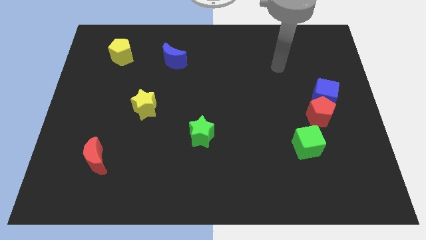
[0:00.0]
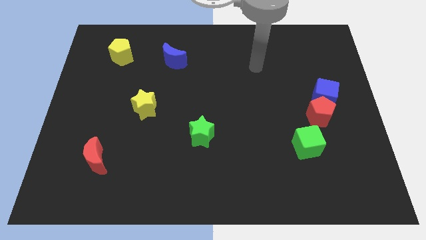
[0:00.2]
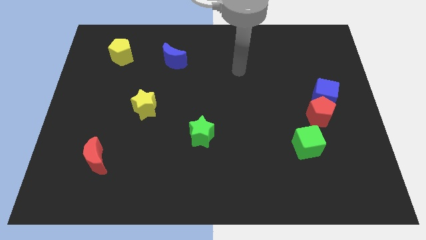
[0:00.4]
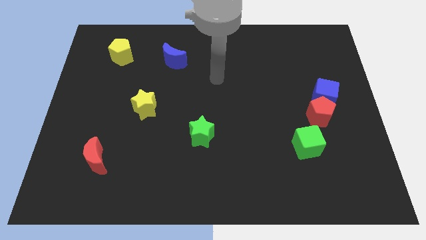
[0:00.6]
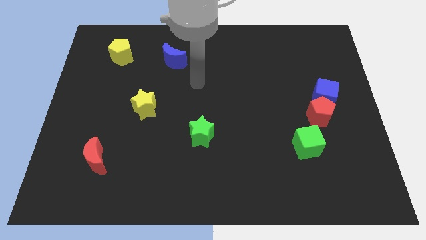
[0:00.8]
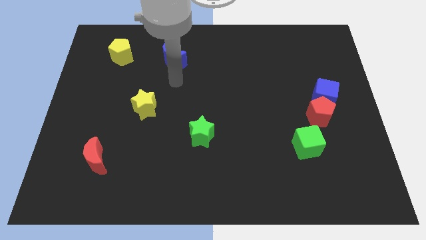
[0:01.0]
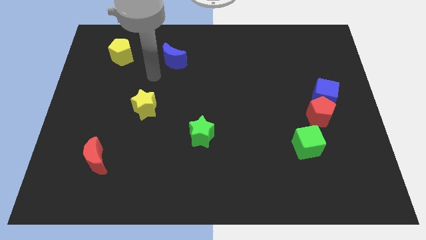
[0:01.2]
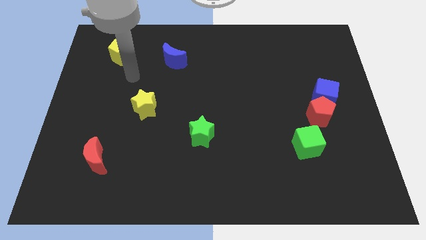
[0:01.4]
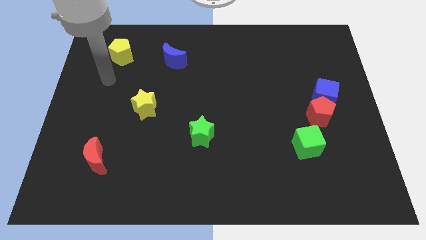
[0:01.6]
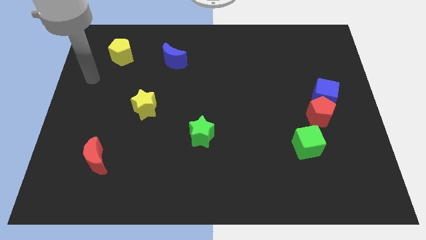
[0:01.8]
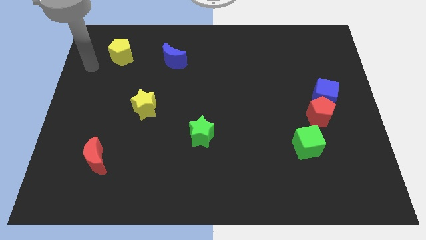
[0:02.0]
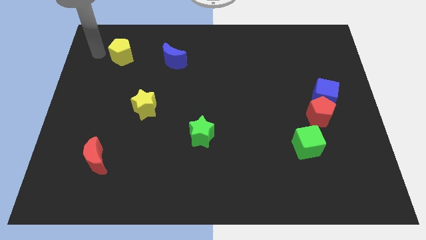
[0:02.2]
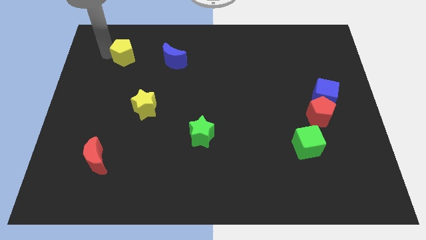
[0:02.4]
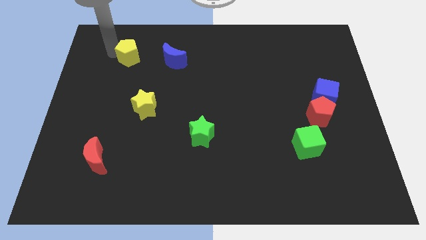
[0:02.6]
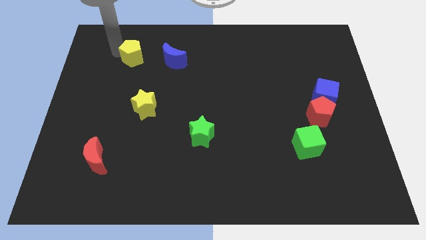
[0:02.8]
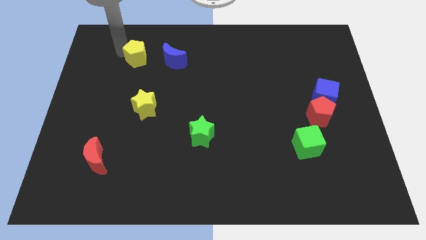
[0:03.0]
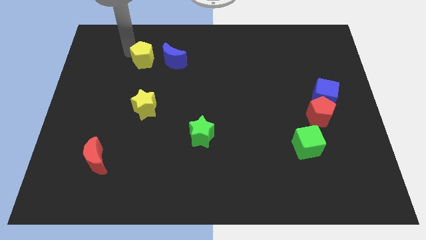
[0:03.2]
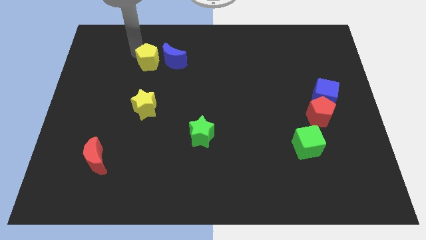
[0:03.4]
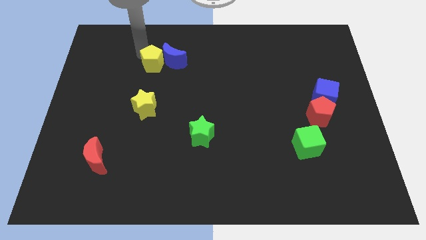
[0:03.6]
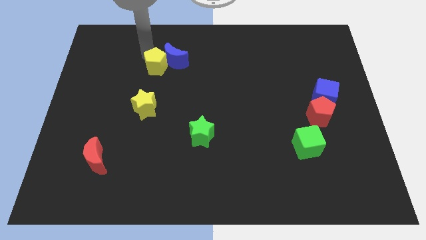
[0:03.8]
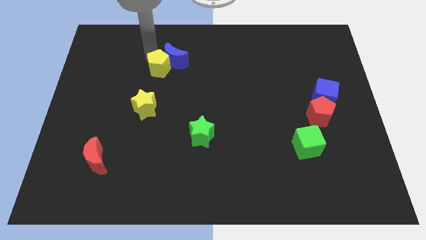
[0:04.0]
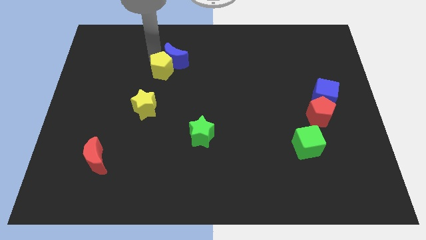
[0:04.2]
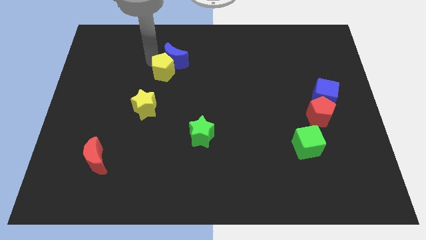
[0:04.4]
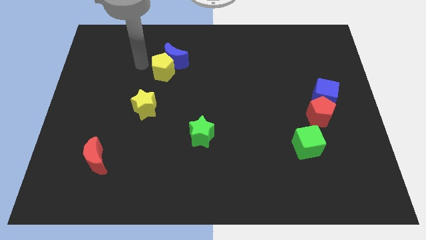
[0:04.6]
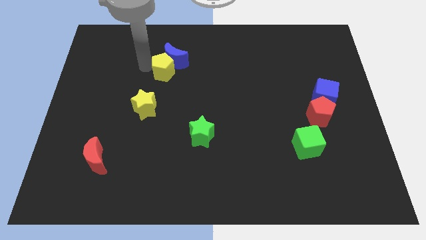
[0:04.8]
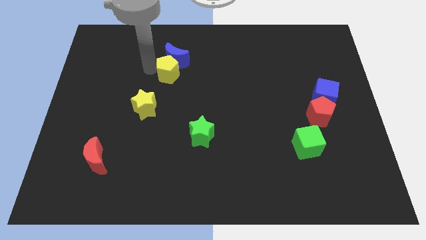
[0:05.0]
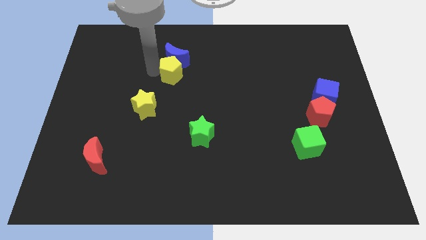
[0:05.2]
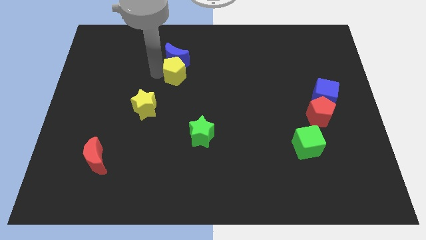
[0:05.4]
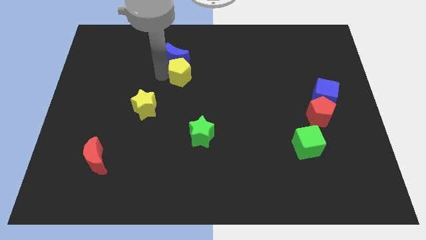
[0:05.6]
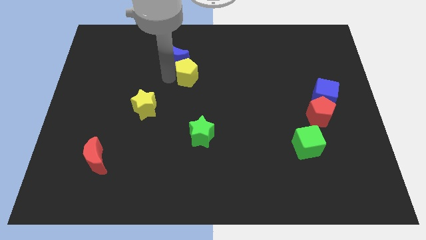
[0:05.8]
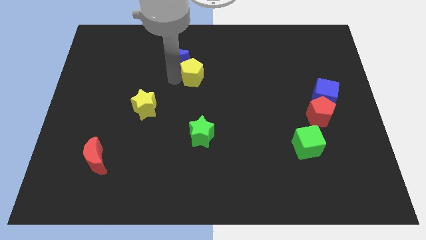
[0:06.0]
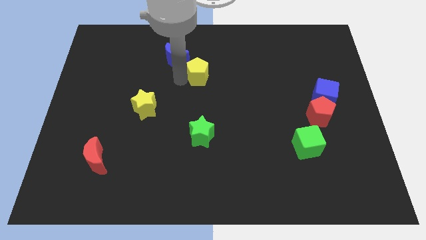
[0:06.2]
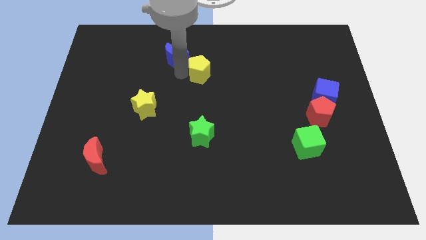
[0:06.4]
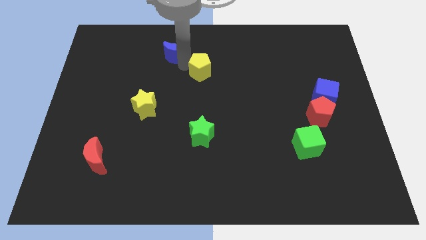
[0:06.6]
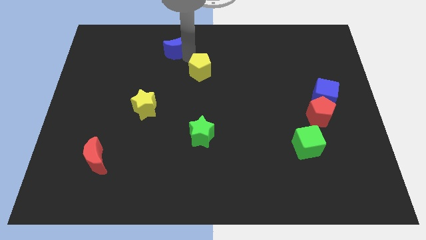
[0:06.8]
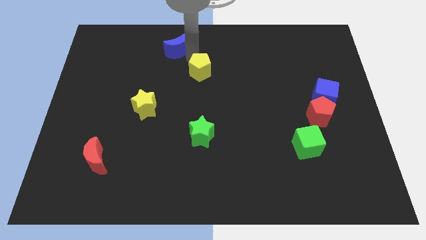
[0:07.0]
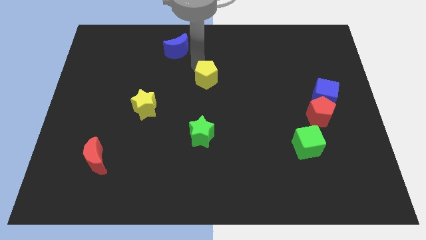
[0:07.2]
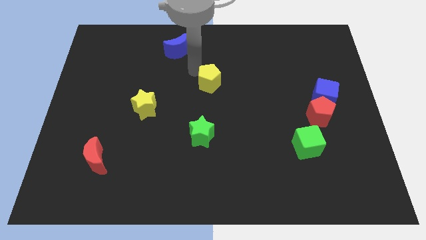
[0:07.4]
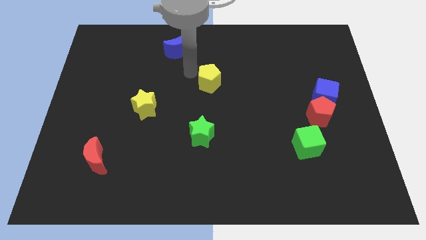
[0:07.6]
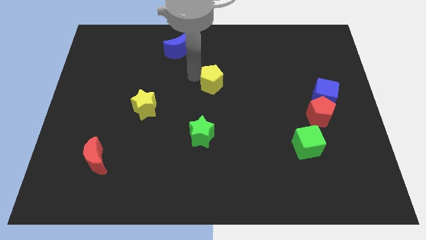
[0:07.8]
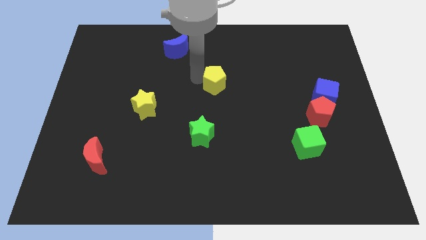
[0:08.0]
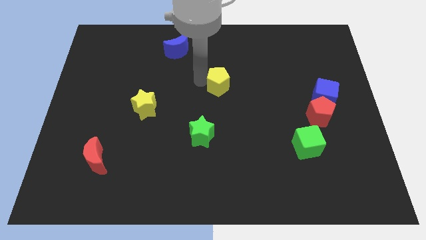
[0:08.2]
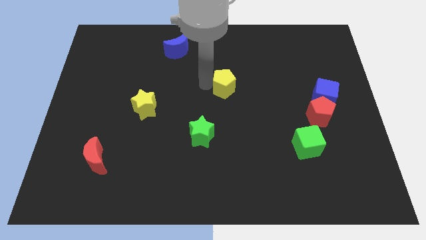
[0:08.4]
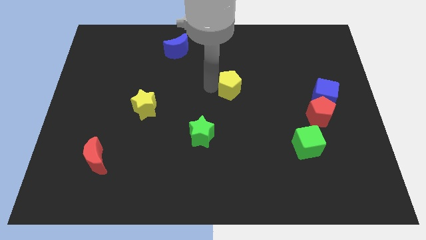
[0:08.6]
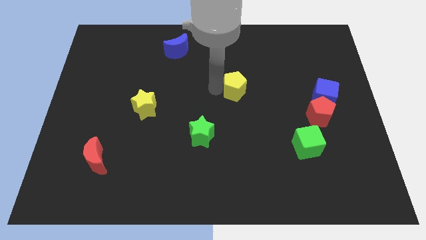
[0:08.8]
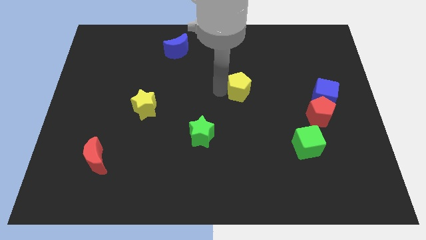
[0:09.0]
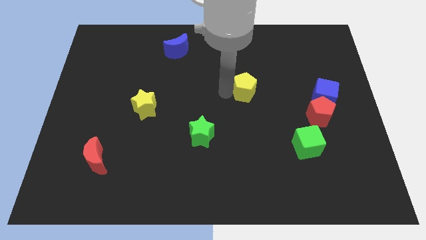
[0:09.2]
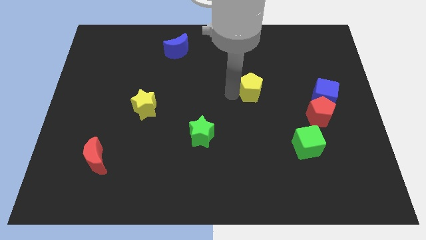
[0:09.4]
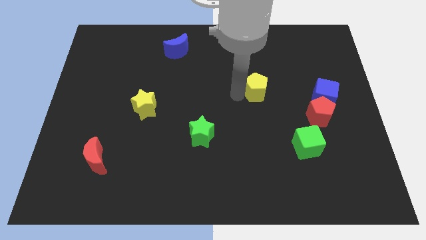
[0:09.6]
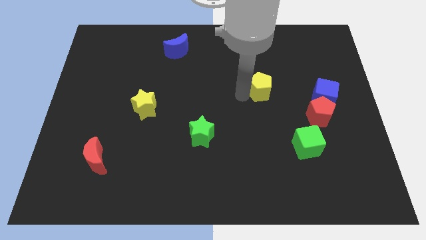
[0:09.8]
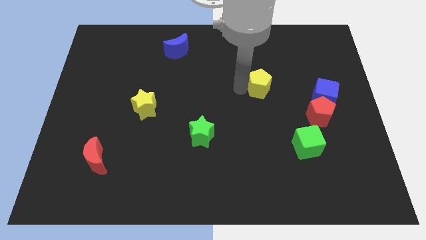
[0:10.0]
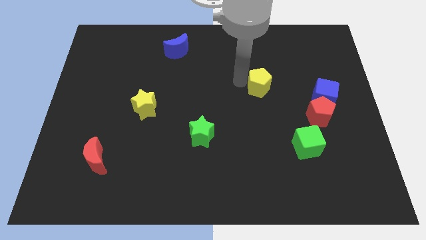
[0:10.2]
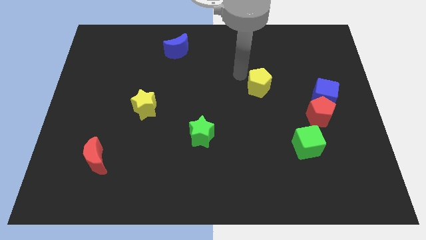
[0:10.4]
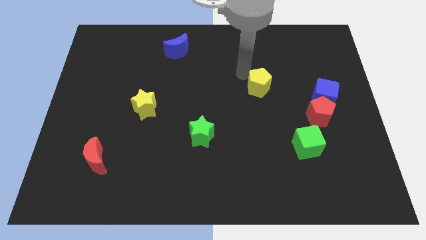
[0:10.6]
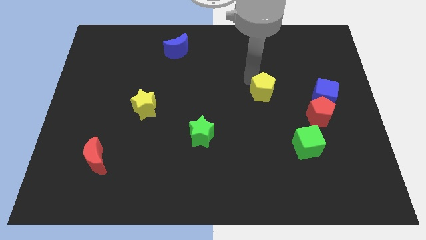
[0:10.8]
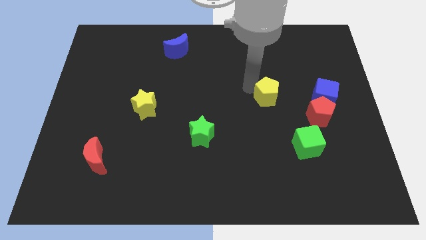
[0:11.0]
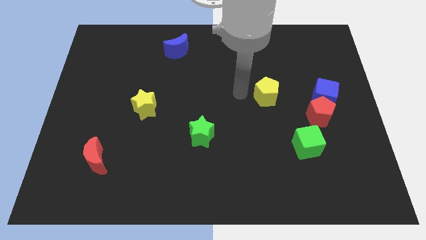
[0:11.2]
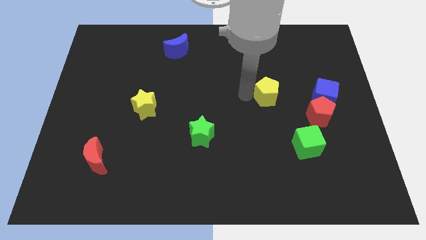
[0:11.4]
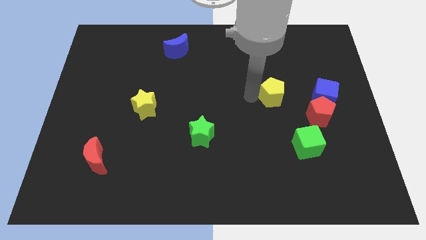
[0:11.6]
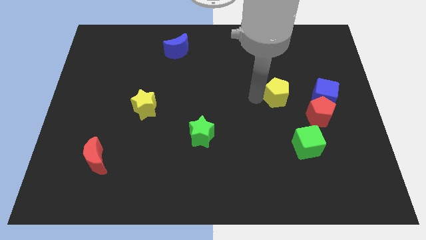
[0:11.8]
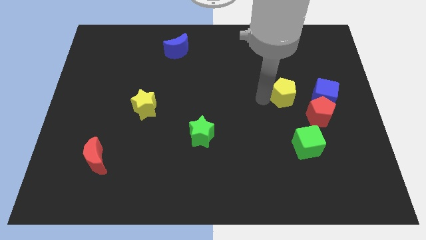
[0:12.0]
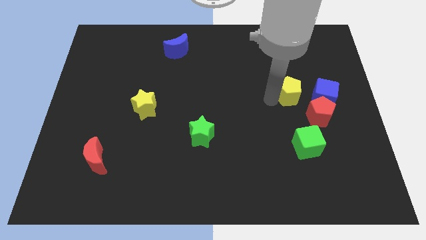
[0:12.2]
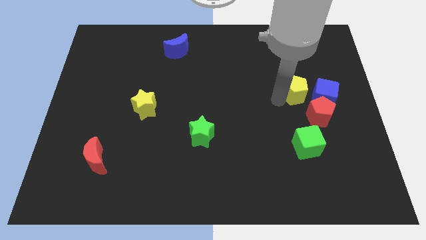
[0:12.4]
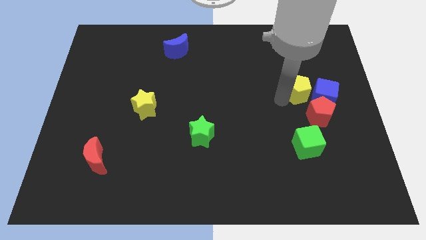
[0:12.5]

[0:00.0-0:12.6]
put the yellow pentagon to the blue cube

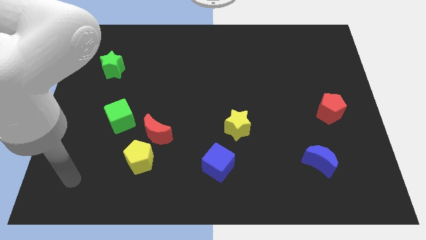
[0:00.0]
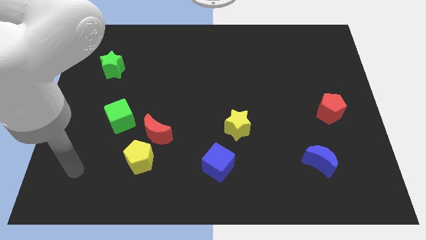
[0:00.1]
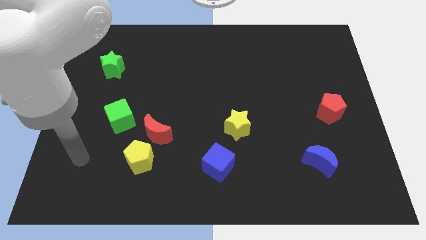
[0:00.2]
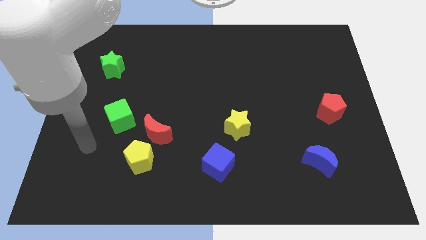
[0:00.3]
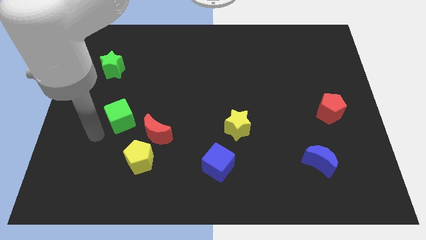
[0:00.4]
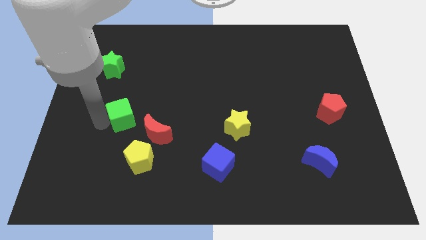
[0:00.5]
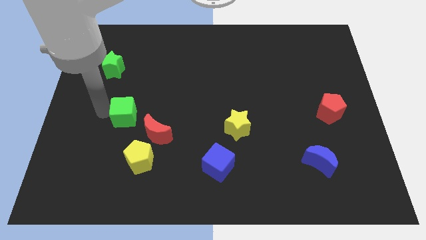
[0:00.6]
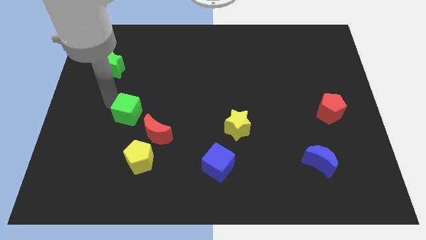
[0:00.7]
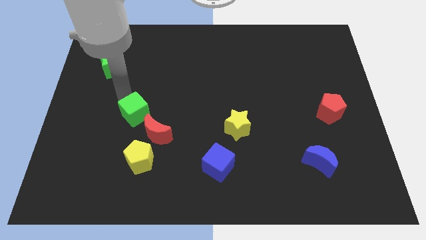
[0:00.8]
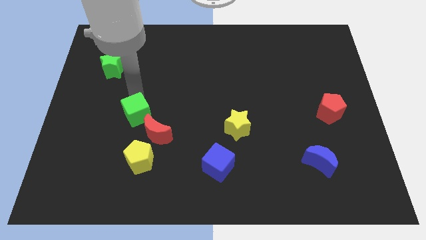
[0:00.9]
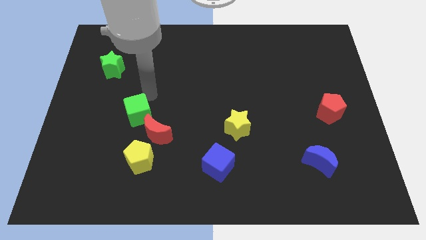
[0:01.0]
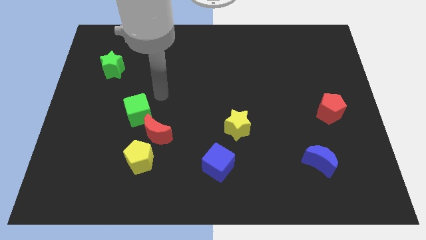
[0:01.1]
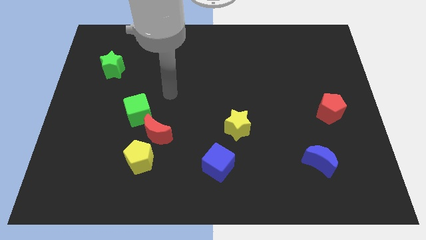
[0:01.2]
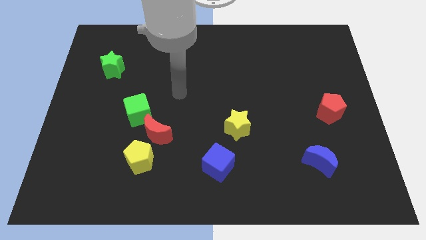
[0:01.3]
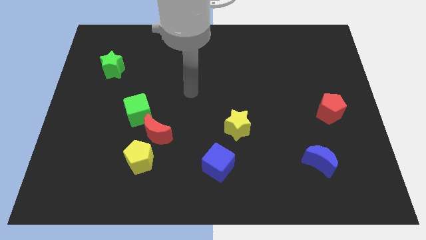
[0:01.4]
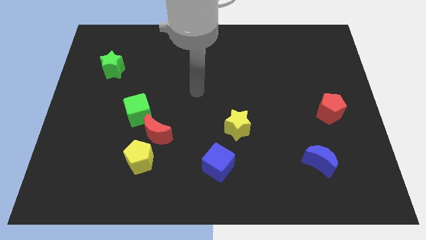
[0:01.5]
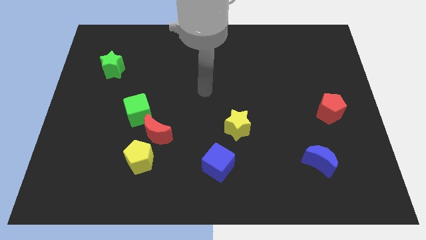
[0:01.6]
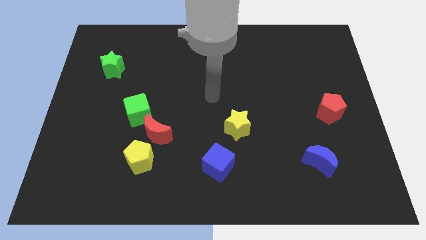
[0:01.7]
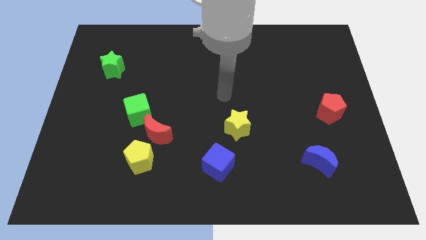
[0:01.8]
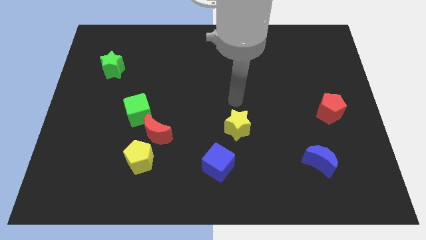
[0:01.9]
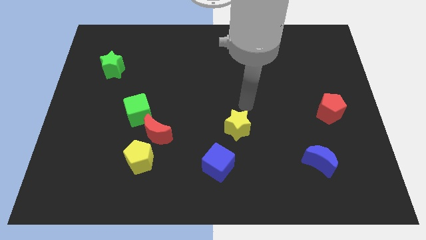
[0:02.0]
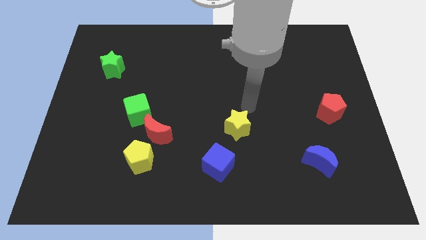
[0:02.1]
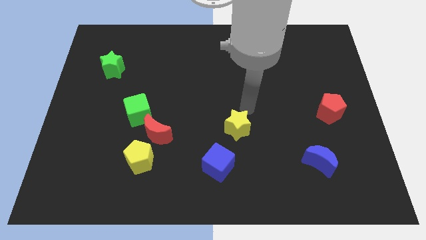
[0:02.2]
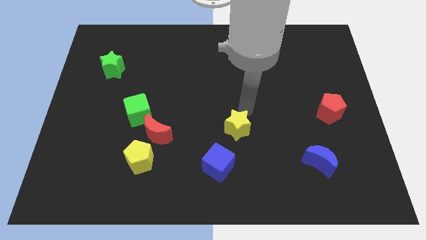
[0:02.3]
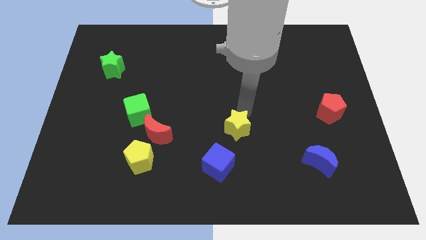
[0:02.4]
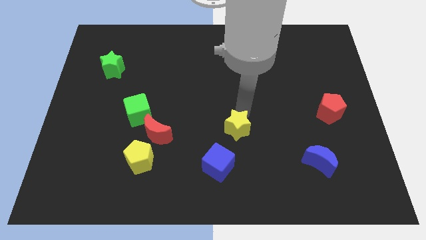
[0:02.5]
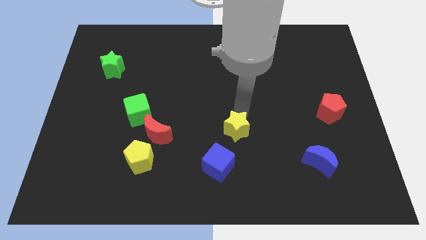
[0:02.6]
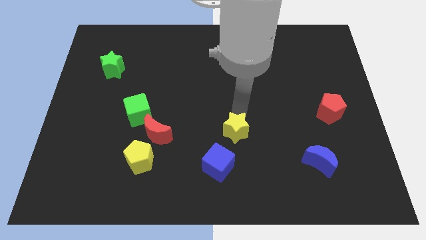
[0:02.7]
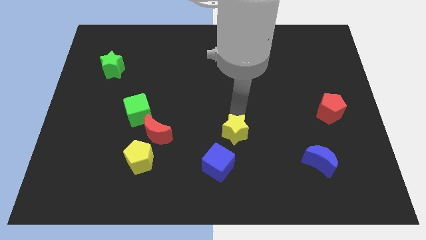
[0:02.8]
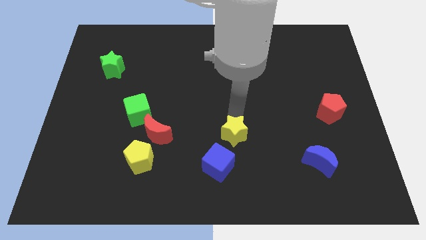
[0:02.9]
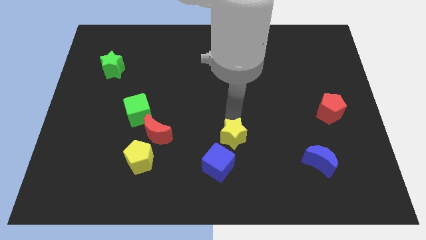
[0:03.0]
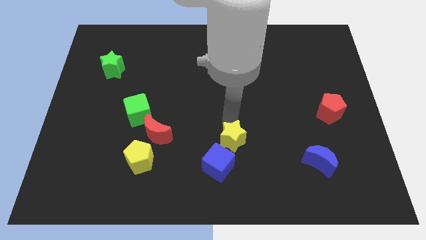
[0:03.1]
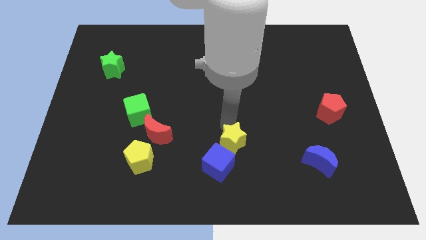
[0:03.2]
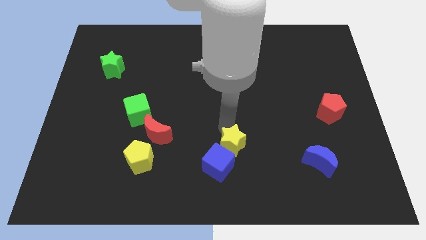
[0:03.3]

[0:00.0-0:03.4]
put the yellow star towards the blue cube
